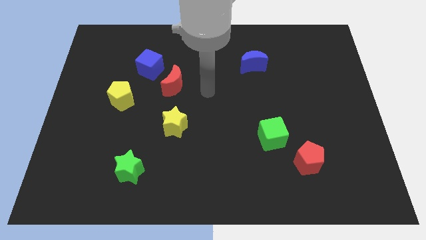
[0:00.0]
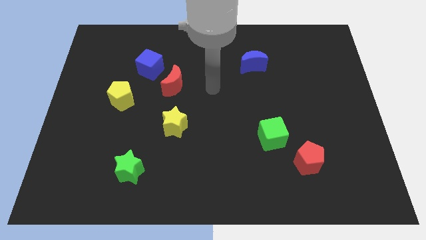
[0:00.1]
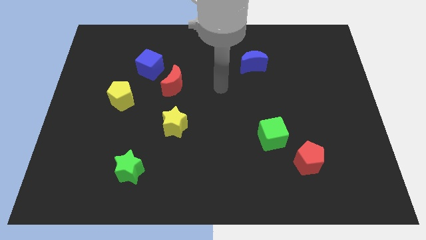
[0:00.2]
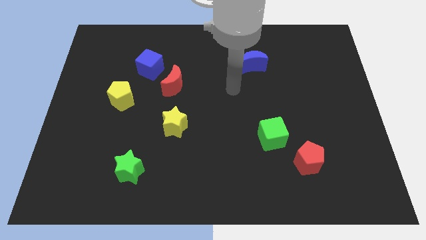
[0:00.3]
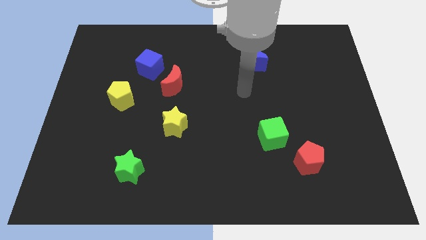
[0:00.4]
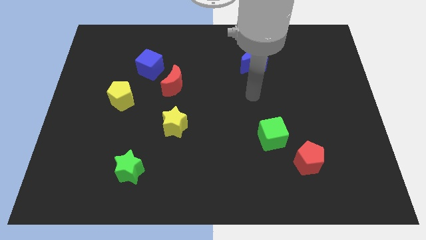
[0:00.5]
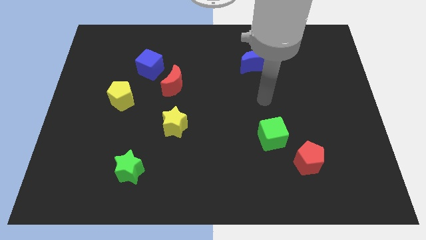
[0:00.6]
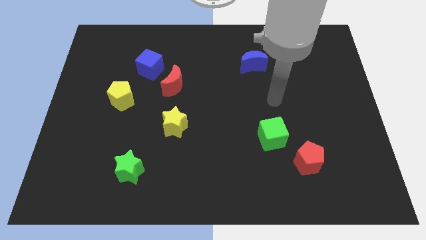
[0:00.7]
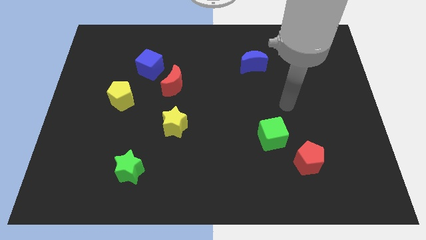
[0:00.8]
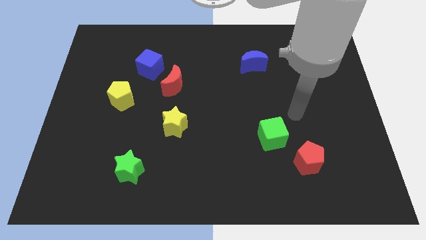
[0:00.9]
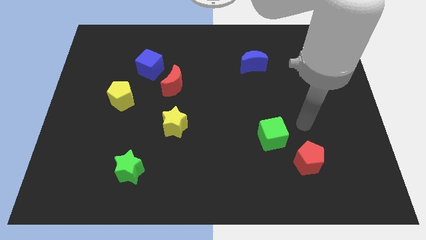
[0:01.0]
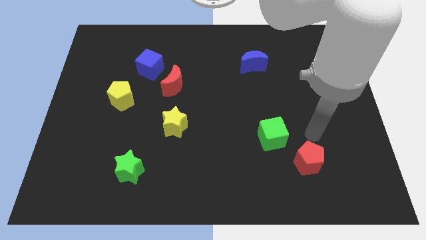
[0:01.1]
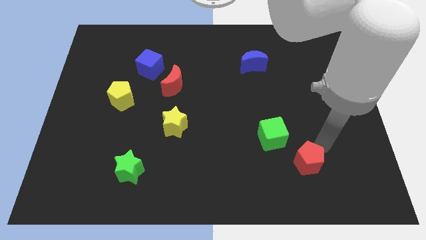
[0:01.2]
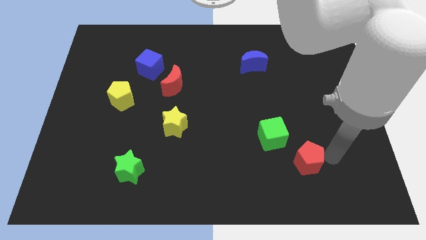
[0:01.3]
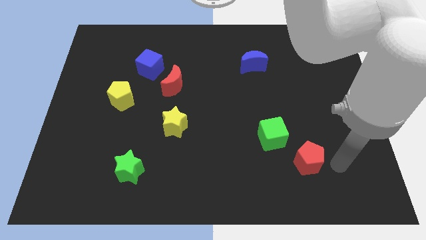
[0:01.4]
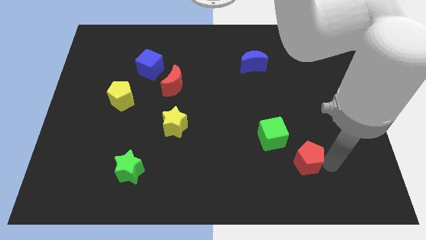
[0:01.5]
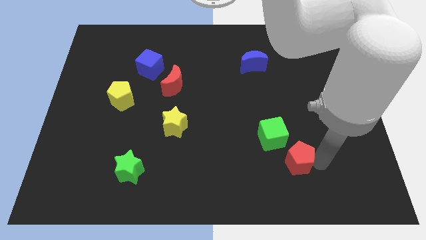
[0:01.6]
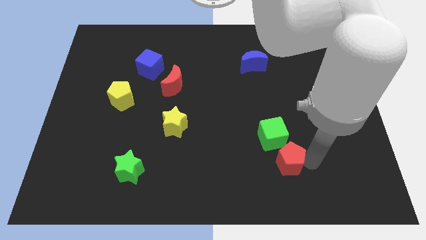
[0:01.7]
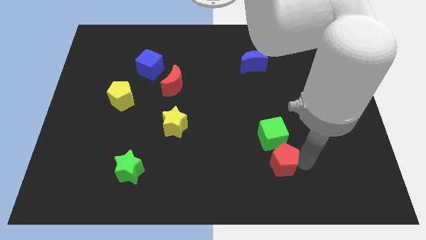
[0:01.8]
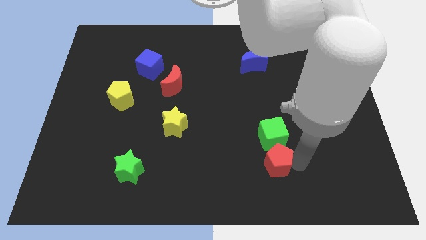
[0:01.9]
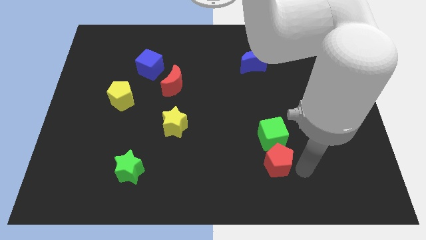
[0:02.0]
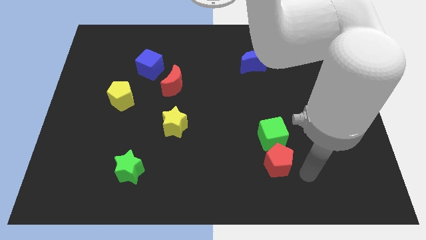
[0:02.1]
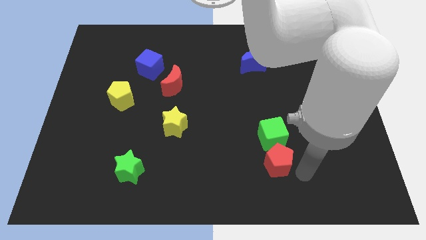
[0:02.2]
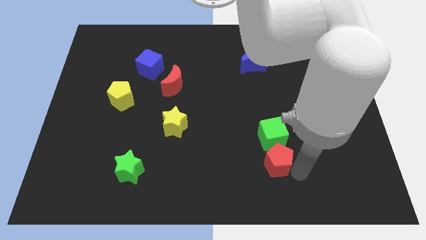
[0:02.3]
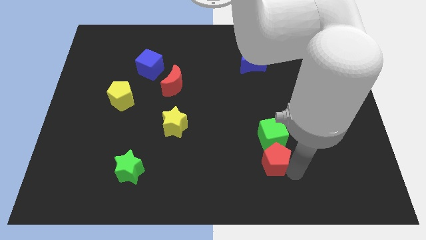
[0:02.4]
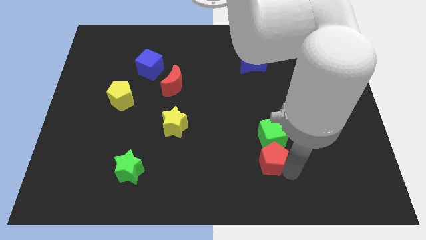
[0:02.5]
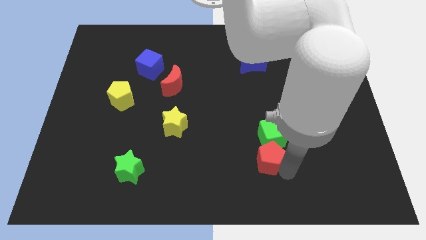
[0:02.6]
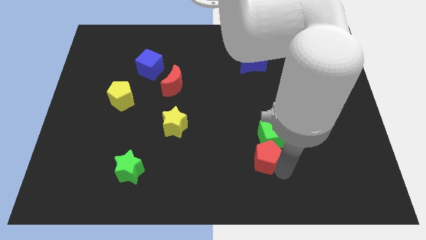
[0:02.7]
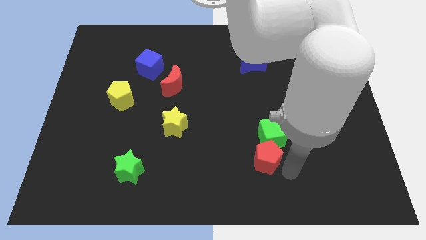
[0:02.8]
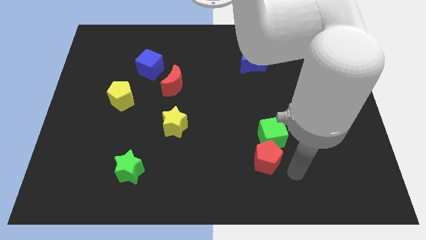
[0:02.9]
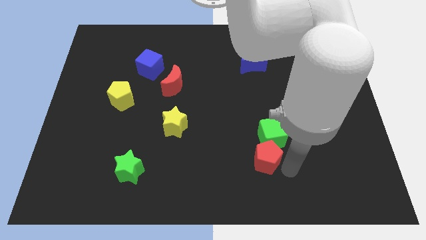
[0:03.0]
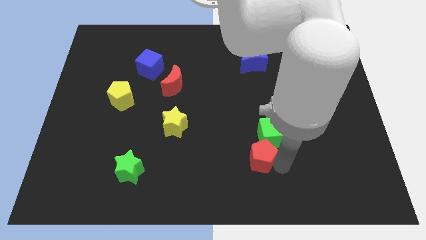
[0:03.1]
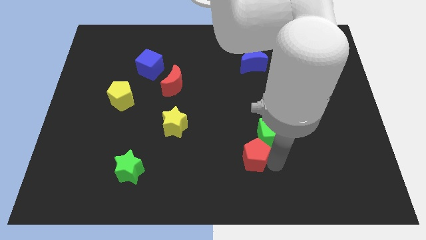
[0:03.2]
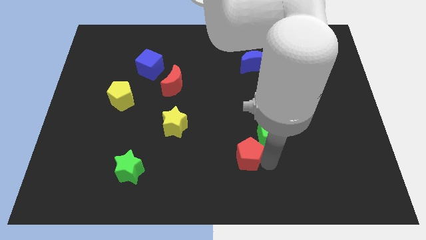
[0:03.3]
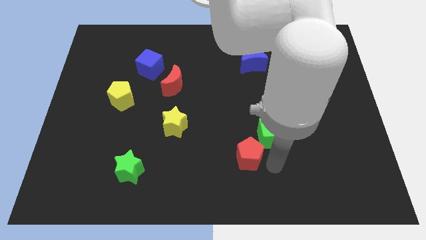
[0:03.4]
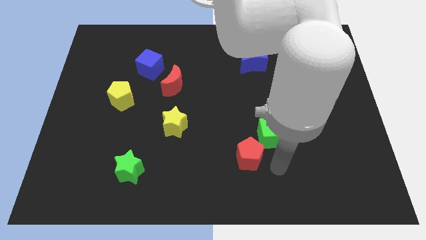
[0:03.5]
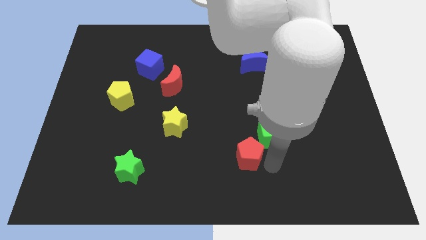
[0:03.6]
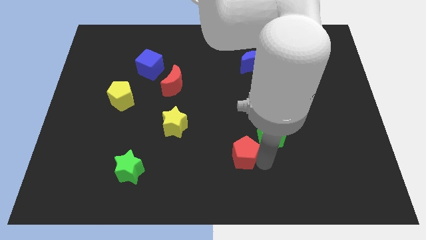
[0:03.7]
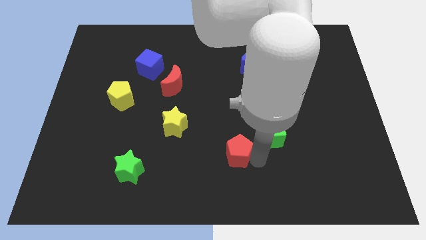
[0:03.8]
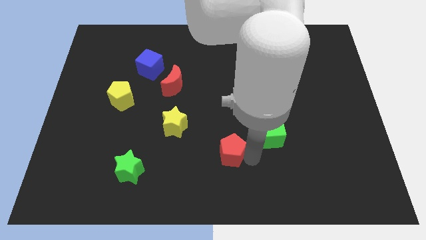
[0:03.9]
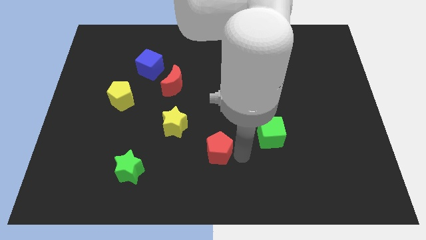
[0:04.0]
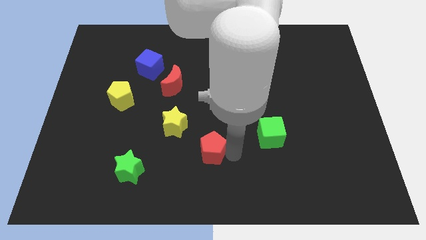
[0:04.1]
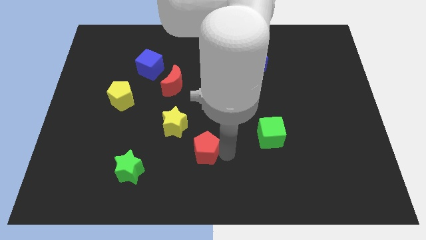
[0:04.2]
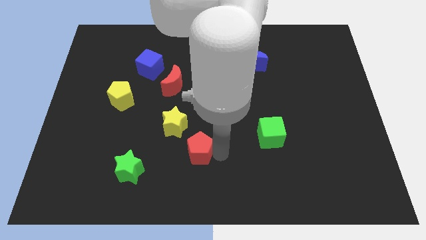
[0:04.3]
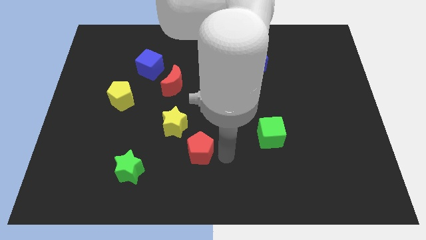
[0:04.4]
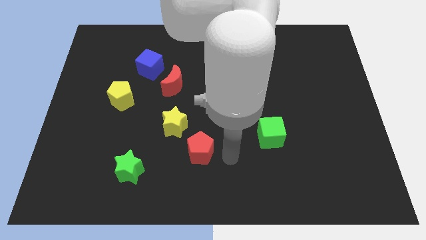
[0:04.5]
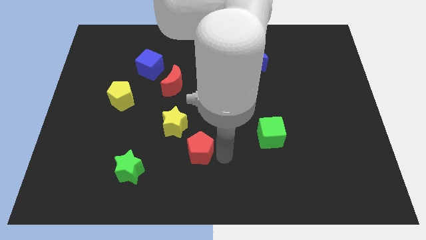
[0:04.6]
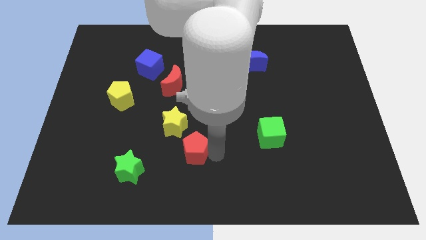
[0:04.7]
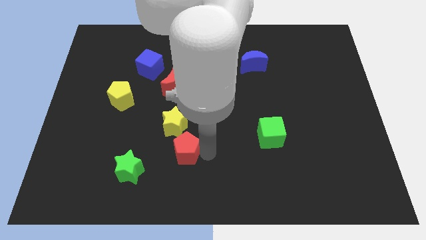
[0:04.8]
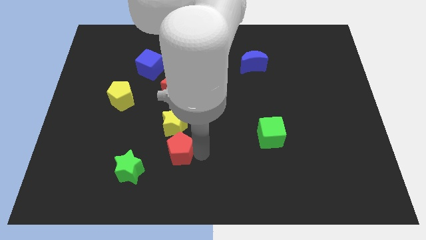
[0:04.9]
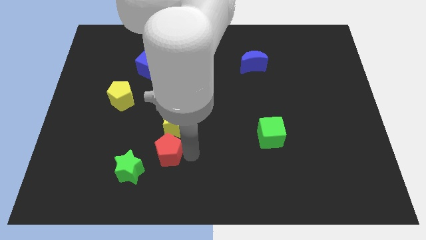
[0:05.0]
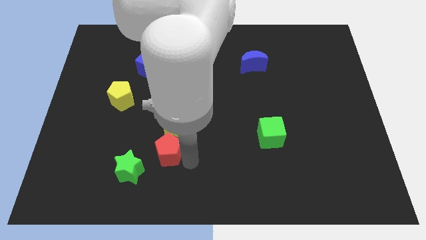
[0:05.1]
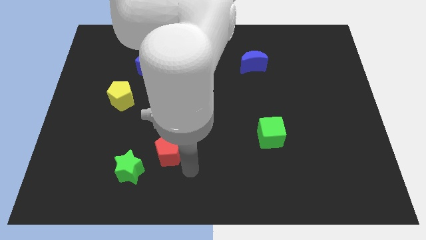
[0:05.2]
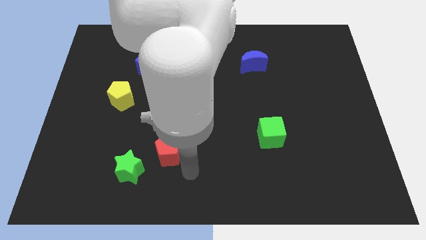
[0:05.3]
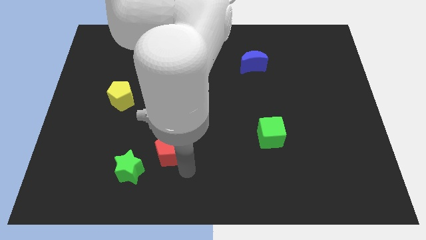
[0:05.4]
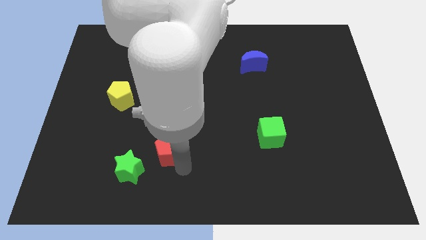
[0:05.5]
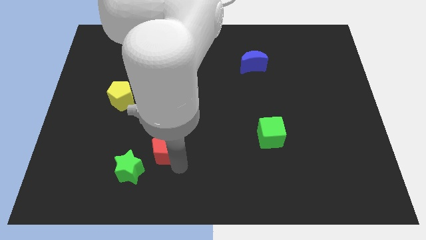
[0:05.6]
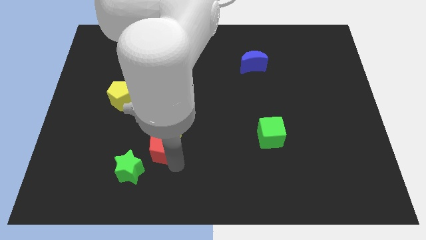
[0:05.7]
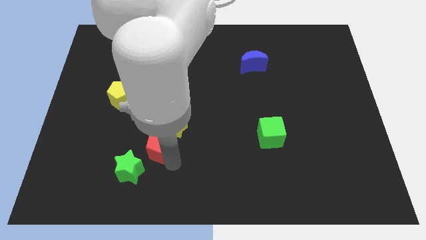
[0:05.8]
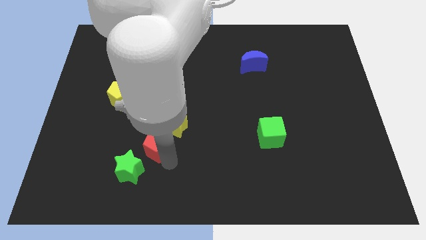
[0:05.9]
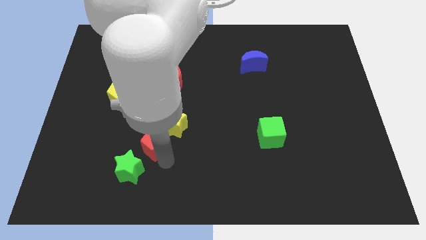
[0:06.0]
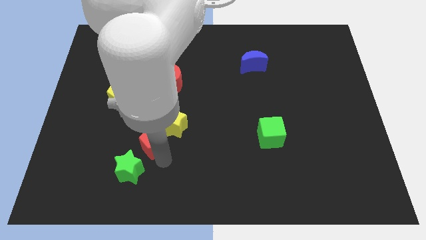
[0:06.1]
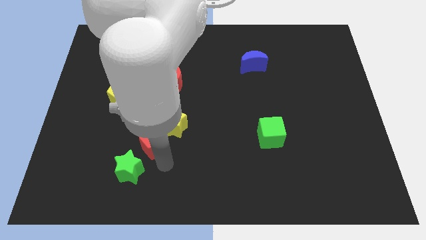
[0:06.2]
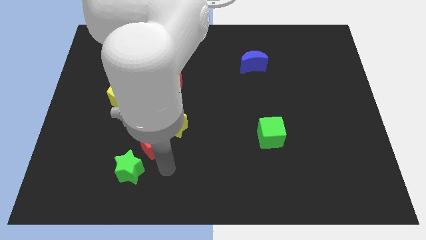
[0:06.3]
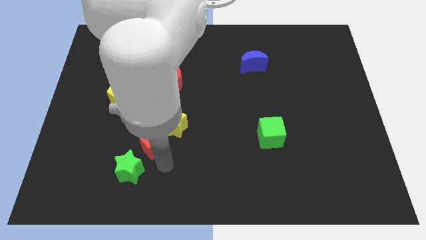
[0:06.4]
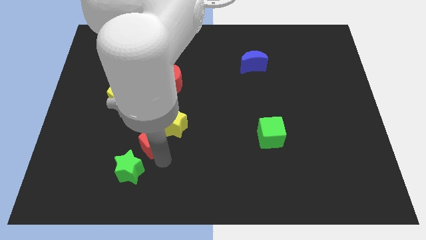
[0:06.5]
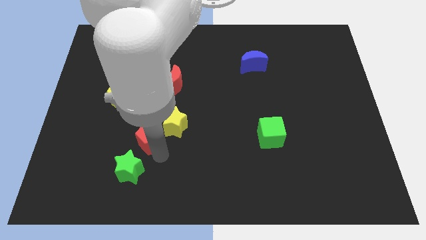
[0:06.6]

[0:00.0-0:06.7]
move the red pentagon to the left side of the yellow star

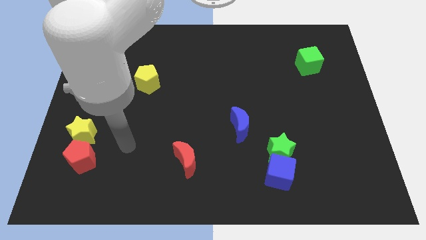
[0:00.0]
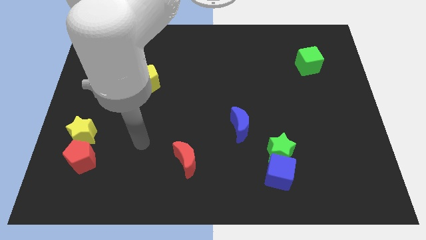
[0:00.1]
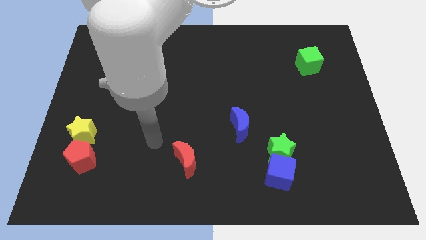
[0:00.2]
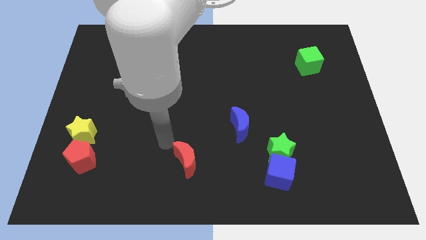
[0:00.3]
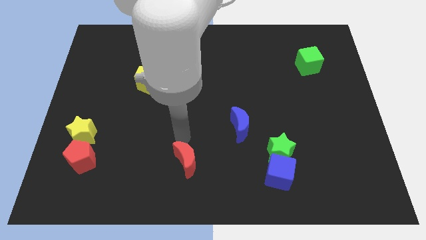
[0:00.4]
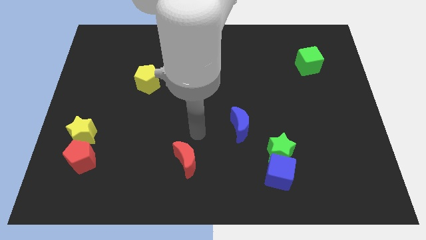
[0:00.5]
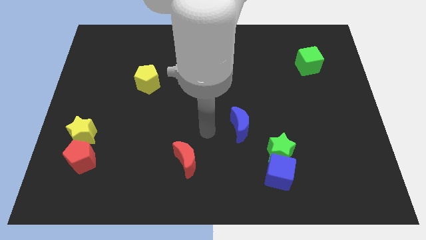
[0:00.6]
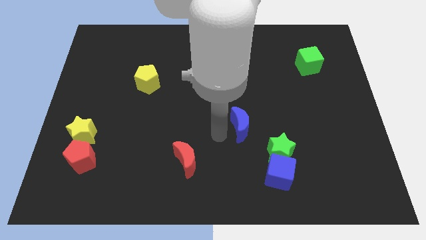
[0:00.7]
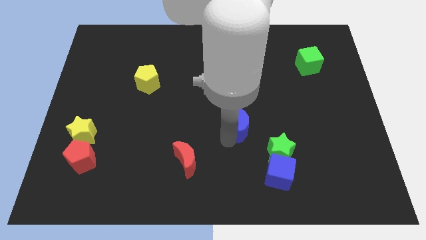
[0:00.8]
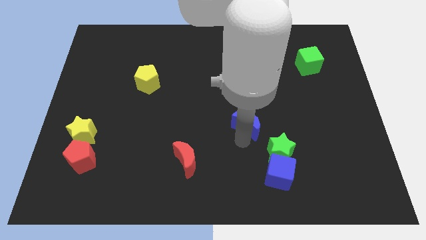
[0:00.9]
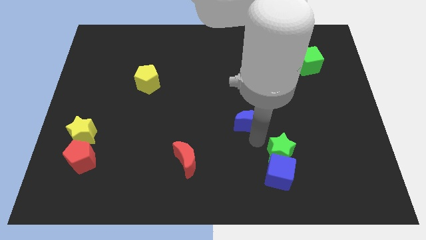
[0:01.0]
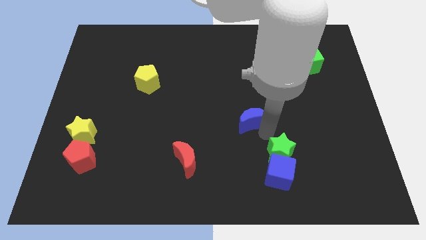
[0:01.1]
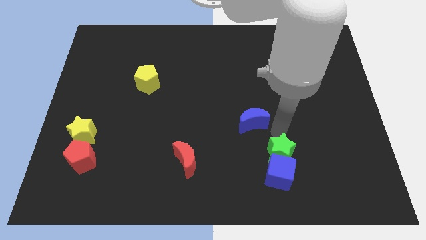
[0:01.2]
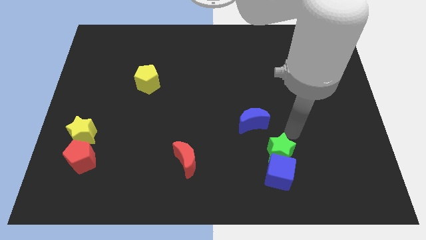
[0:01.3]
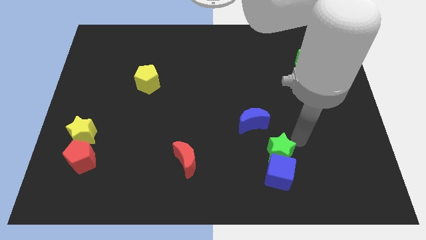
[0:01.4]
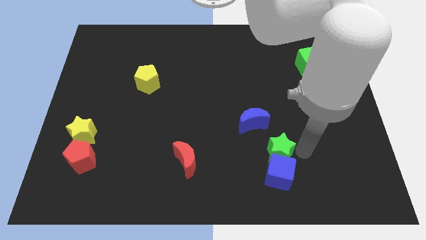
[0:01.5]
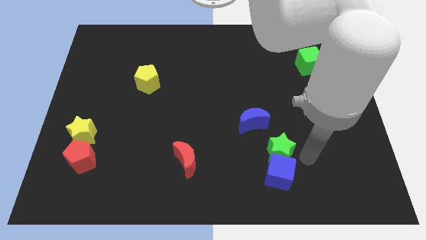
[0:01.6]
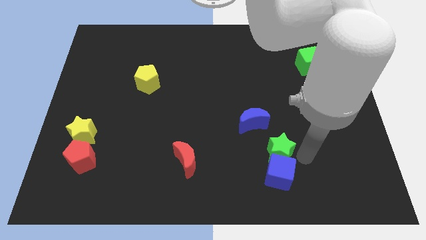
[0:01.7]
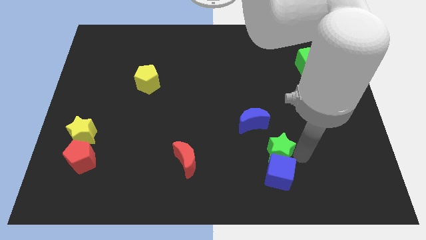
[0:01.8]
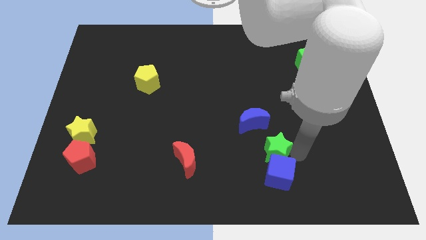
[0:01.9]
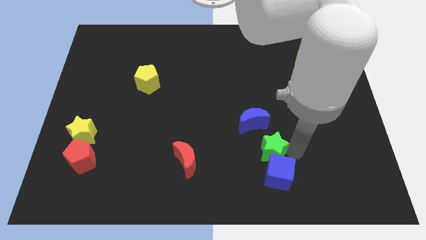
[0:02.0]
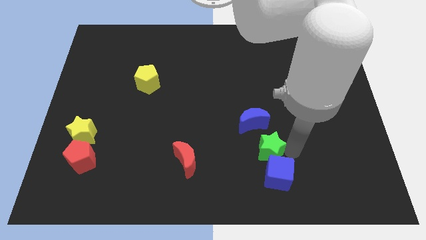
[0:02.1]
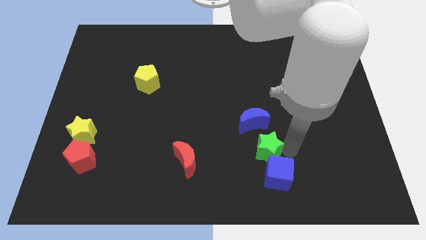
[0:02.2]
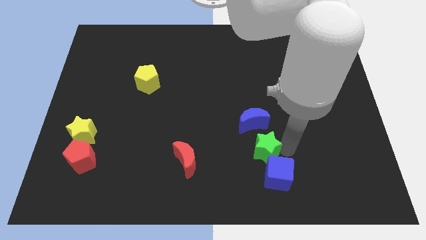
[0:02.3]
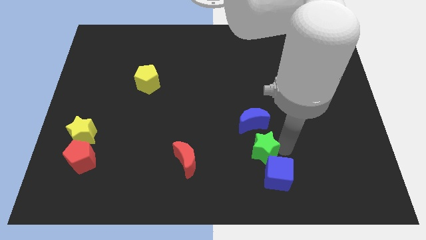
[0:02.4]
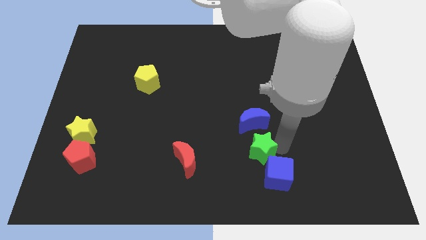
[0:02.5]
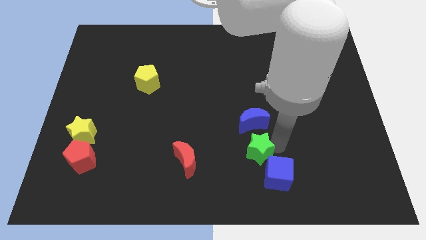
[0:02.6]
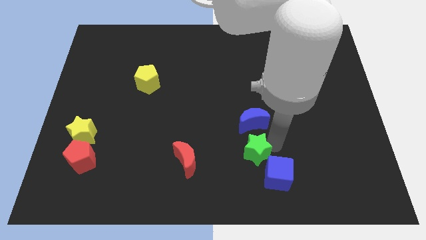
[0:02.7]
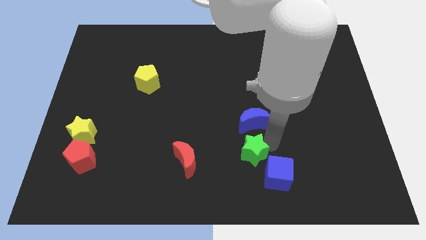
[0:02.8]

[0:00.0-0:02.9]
put the green star diagonally down and to the left of the blue moon
